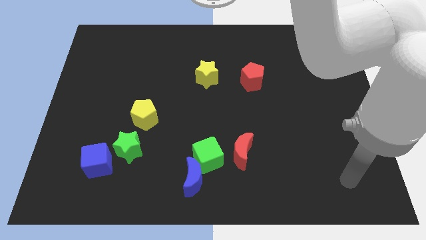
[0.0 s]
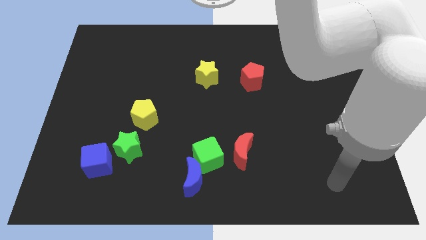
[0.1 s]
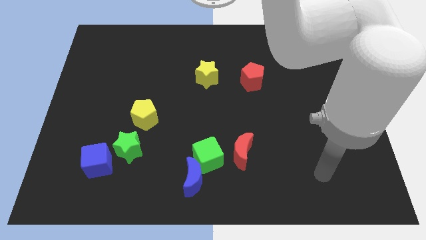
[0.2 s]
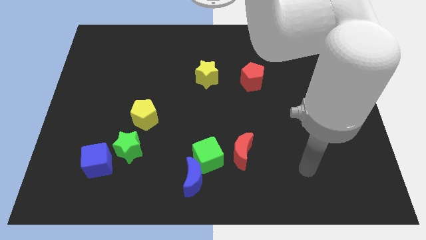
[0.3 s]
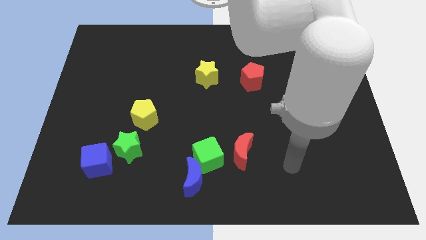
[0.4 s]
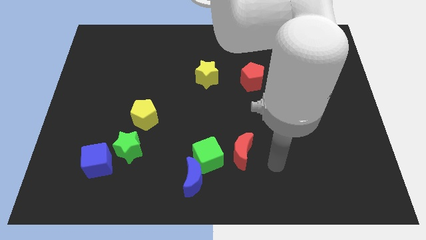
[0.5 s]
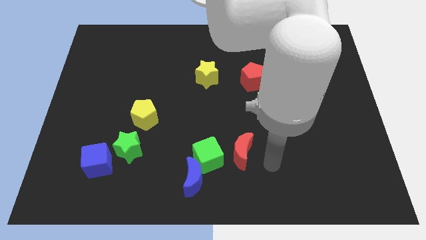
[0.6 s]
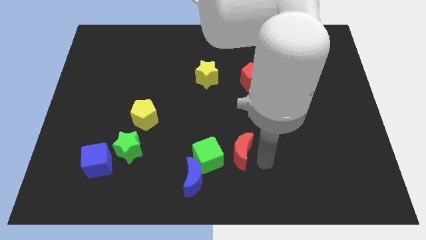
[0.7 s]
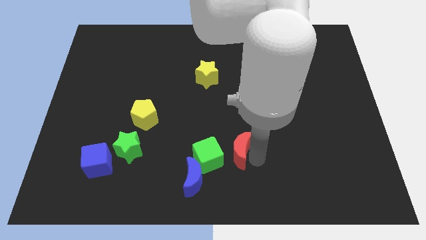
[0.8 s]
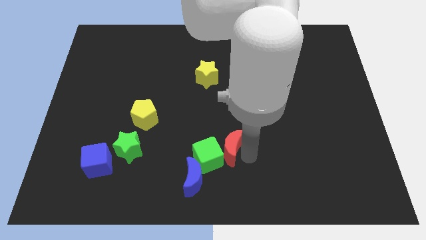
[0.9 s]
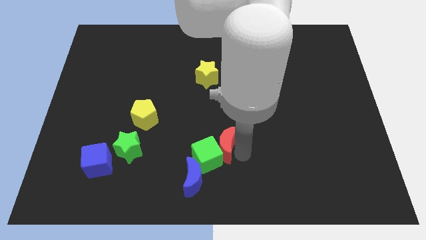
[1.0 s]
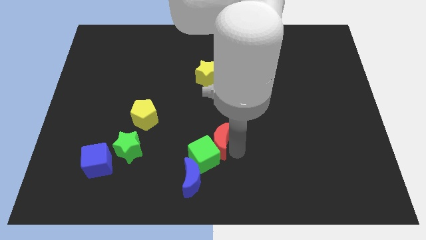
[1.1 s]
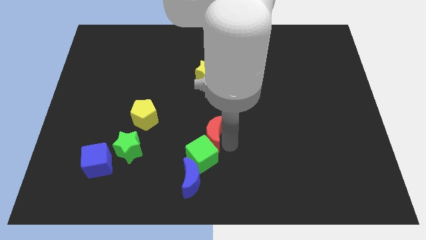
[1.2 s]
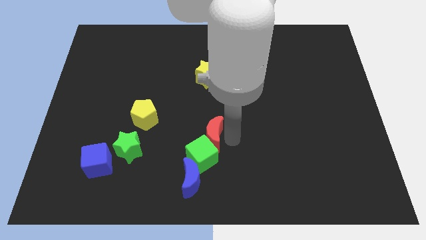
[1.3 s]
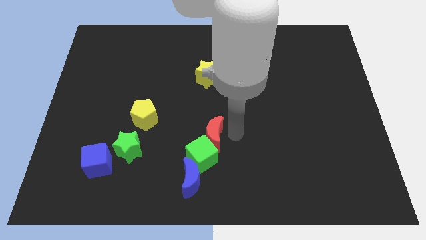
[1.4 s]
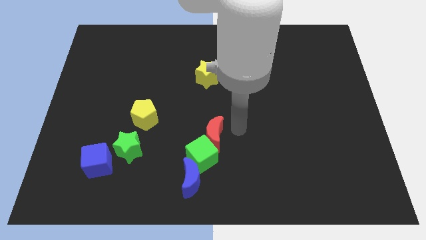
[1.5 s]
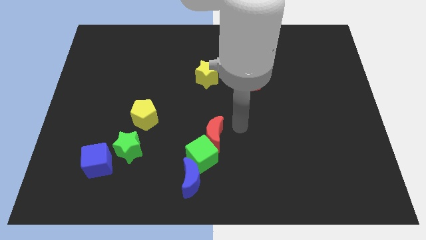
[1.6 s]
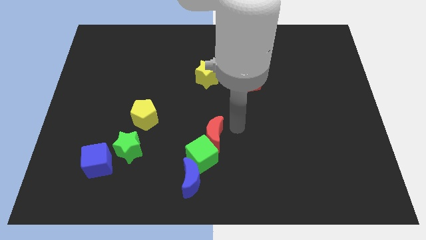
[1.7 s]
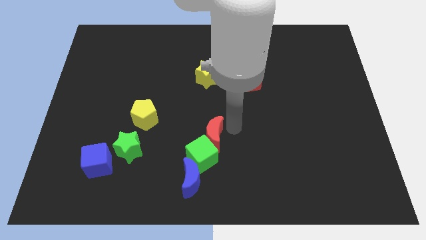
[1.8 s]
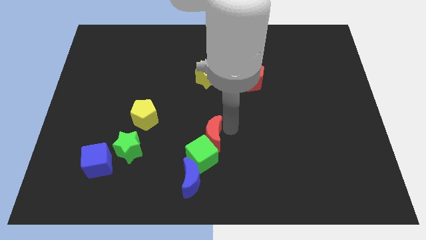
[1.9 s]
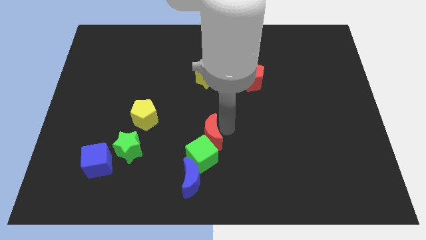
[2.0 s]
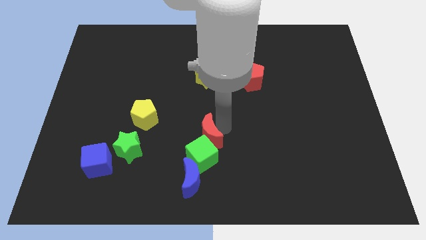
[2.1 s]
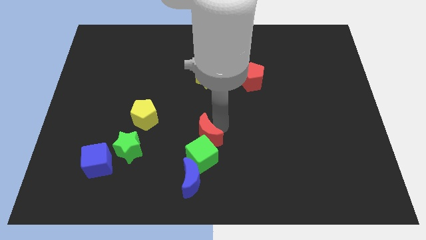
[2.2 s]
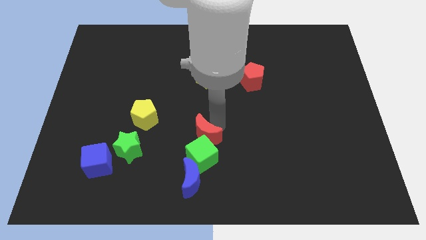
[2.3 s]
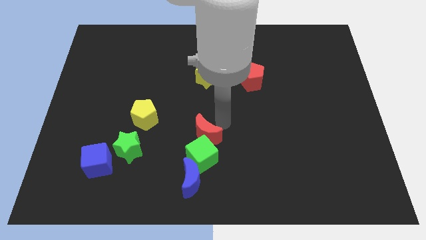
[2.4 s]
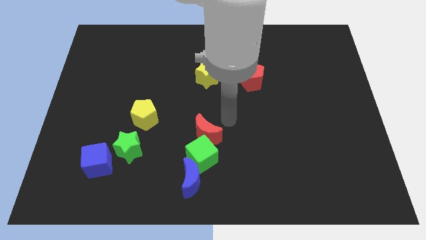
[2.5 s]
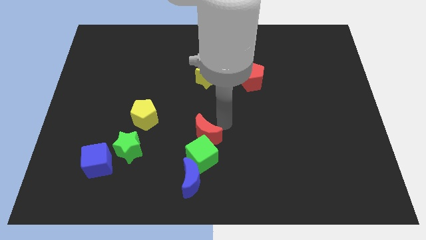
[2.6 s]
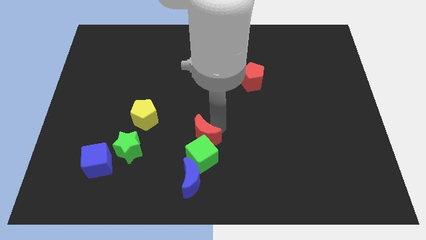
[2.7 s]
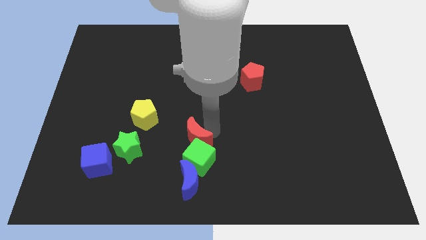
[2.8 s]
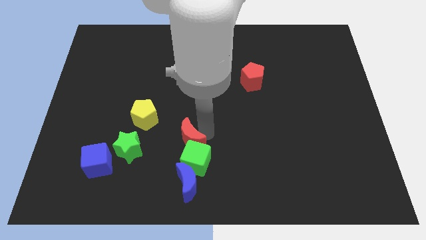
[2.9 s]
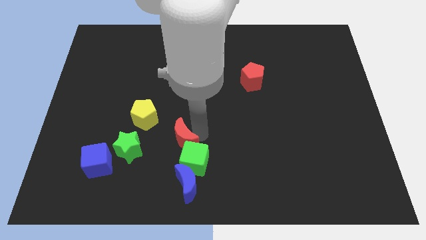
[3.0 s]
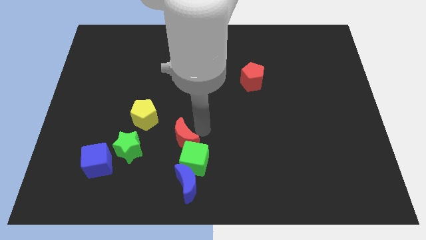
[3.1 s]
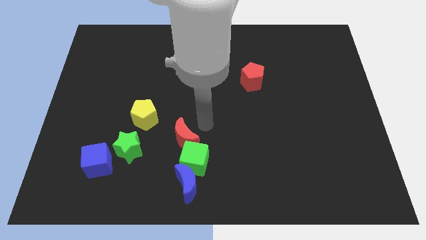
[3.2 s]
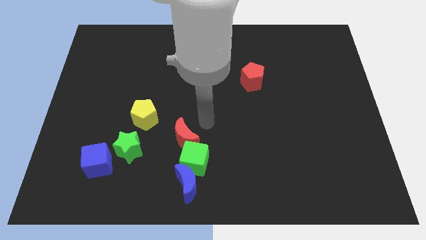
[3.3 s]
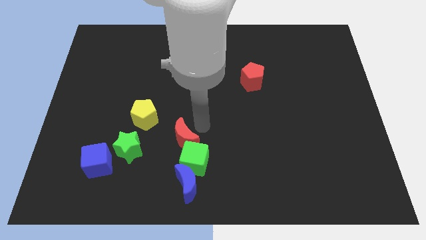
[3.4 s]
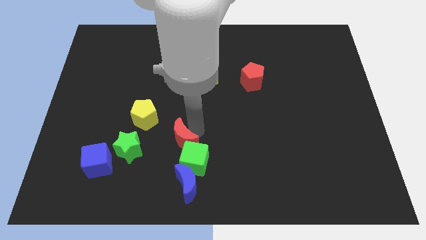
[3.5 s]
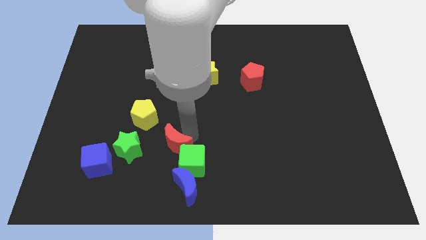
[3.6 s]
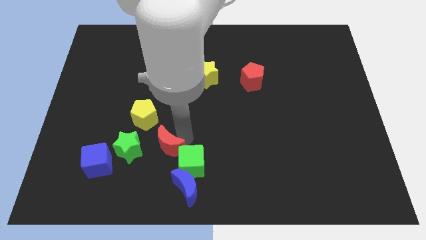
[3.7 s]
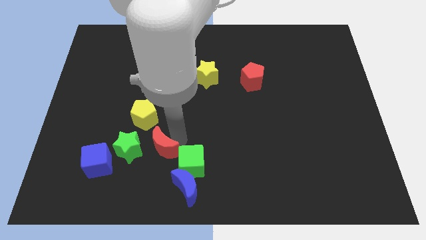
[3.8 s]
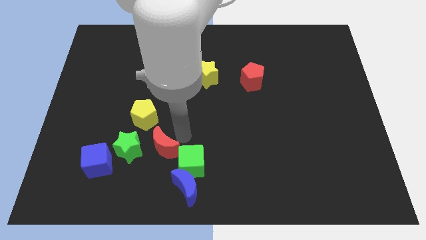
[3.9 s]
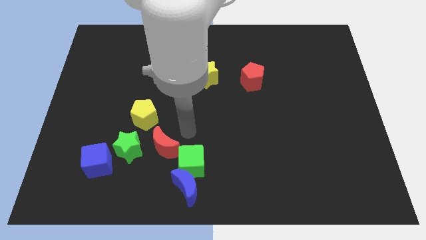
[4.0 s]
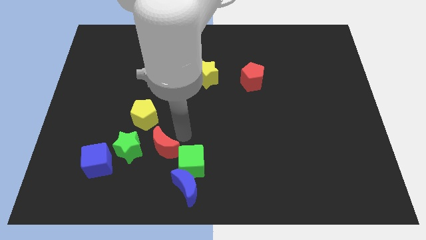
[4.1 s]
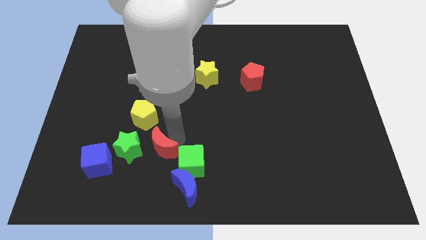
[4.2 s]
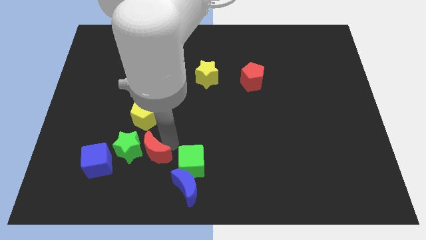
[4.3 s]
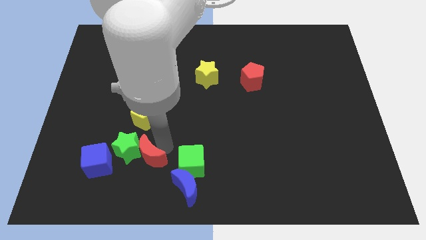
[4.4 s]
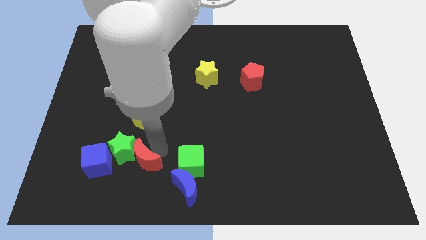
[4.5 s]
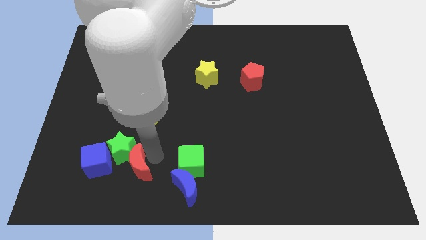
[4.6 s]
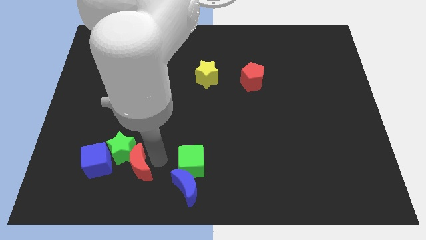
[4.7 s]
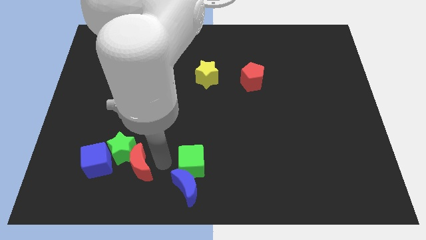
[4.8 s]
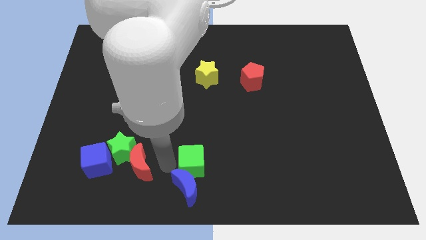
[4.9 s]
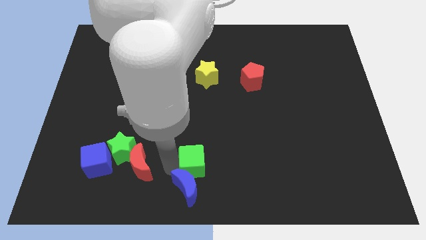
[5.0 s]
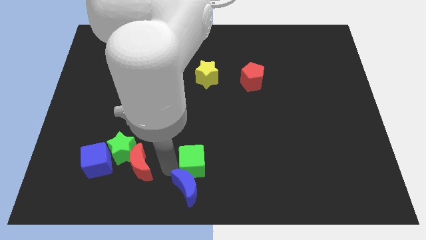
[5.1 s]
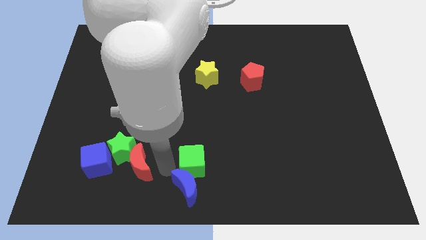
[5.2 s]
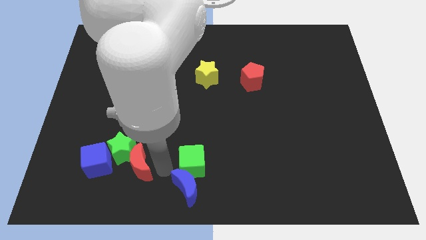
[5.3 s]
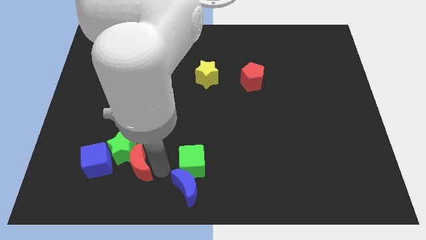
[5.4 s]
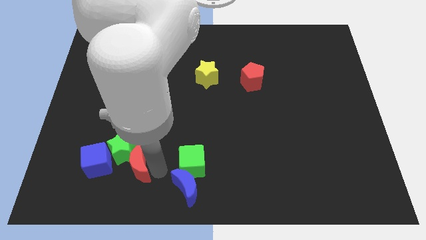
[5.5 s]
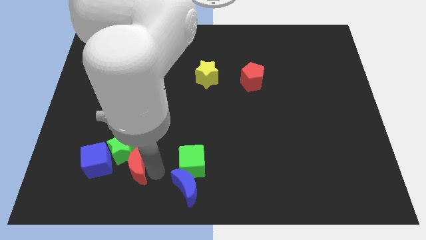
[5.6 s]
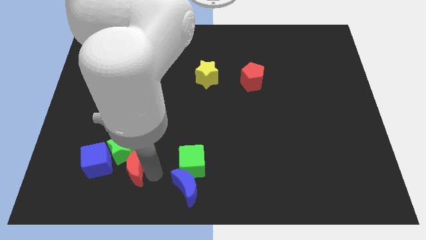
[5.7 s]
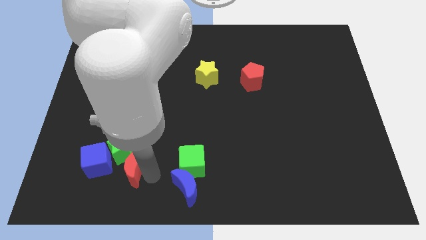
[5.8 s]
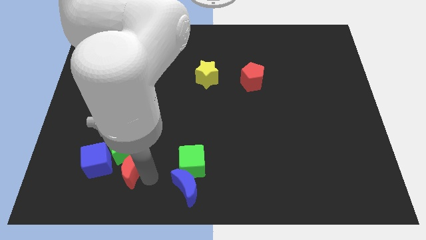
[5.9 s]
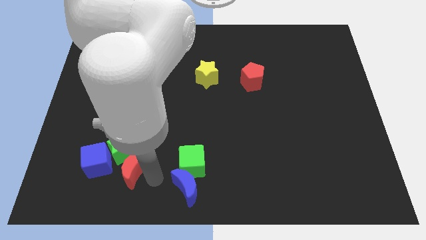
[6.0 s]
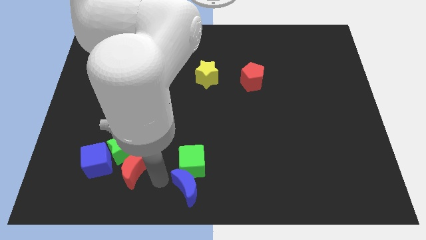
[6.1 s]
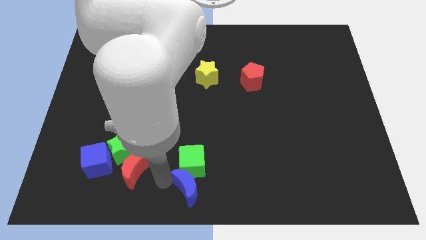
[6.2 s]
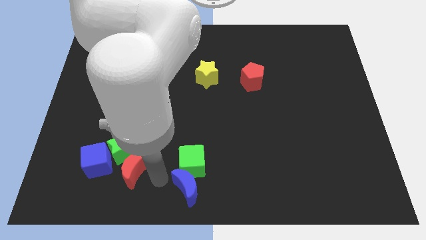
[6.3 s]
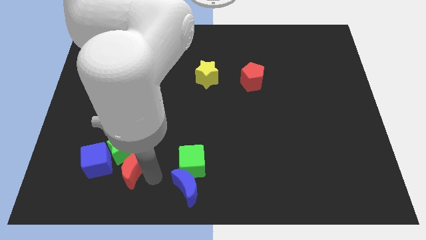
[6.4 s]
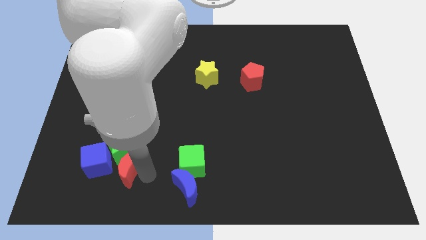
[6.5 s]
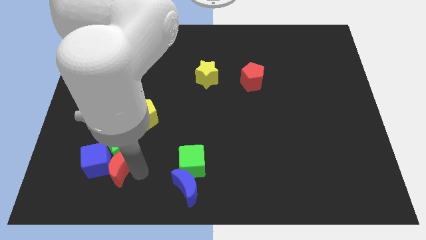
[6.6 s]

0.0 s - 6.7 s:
push the red moon next to the blue cube

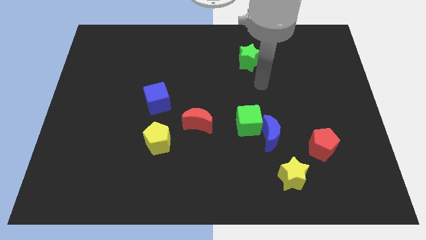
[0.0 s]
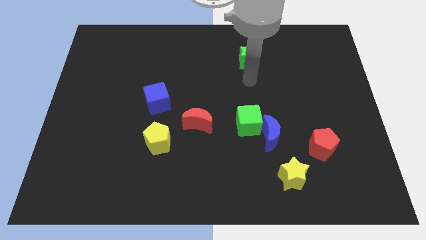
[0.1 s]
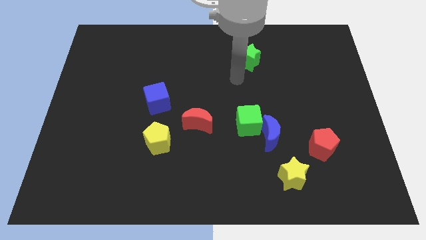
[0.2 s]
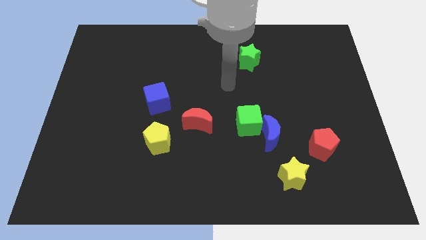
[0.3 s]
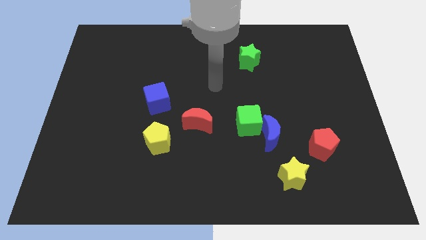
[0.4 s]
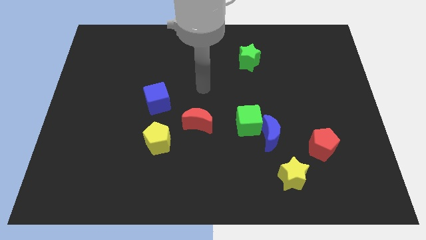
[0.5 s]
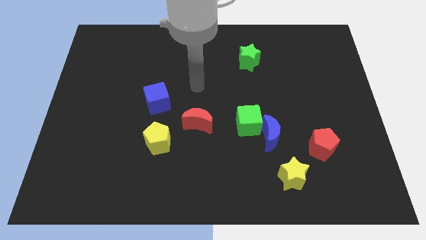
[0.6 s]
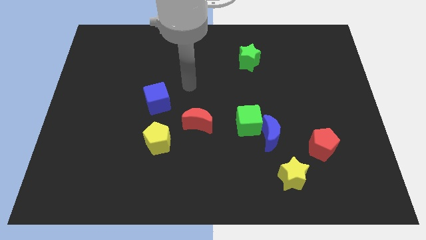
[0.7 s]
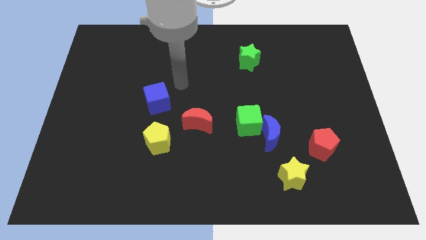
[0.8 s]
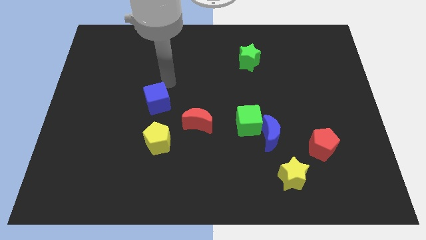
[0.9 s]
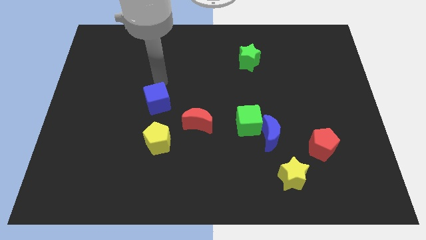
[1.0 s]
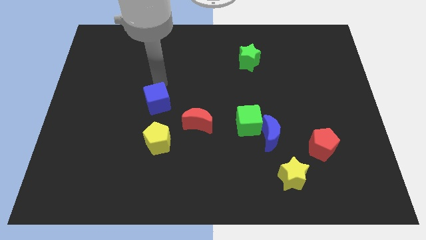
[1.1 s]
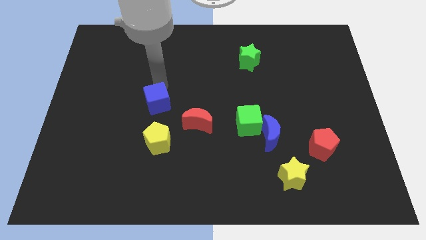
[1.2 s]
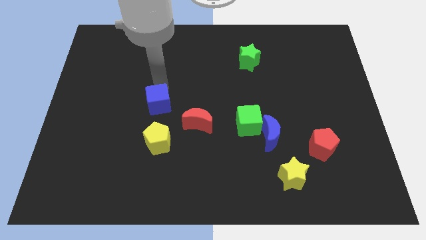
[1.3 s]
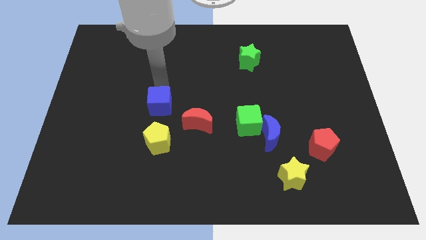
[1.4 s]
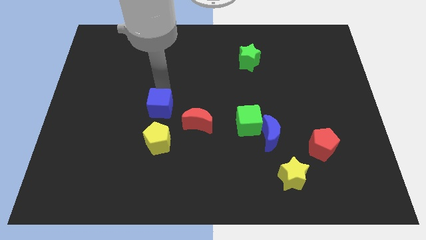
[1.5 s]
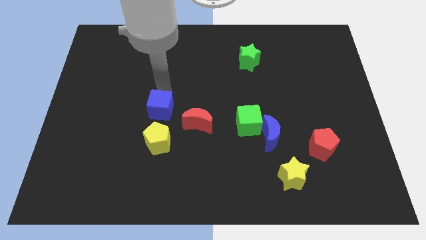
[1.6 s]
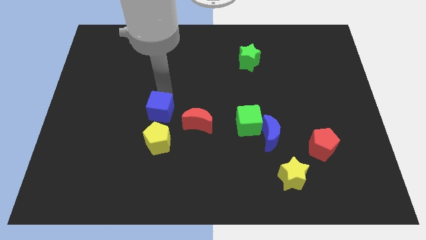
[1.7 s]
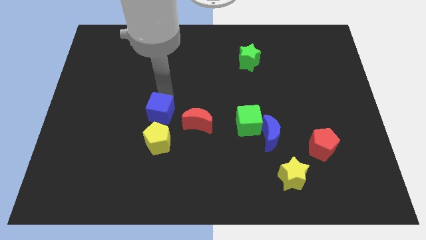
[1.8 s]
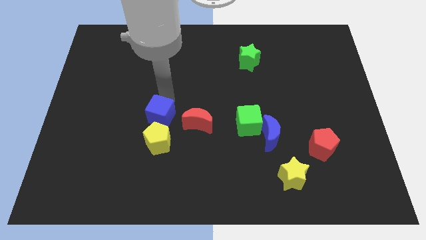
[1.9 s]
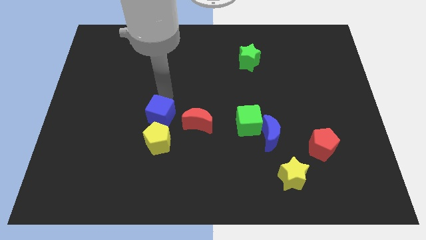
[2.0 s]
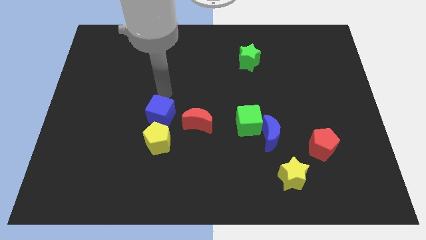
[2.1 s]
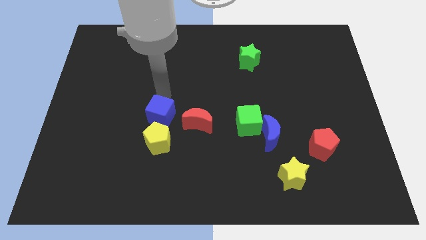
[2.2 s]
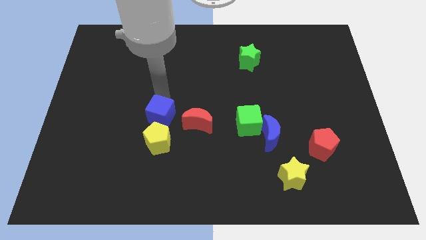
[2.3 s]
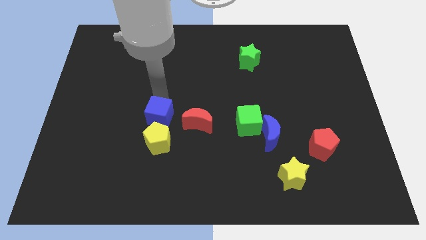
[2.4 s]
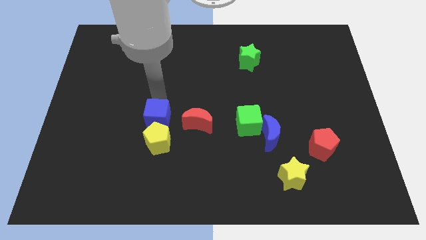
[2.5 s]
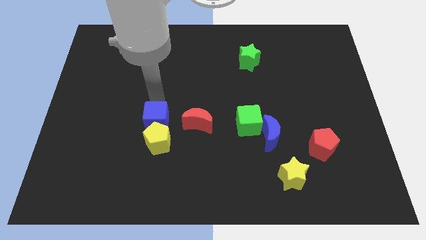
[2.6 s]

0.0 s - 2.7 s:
put the blue cube towards the yellow pentagon
